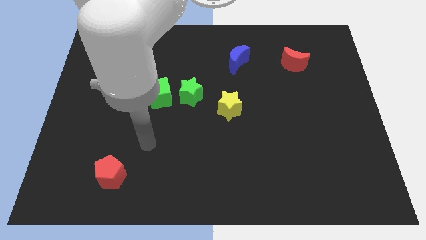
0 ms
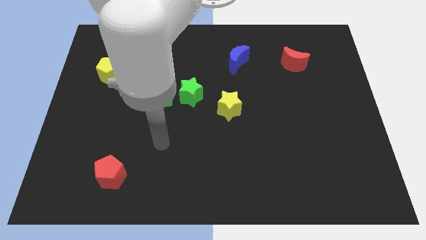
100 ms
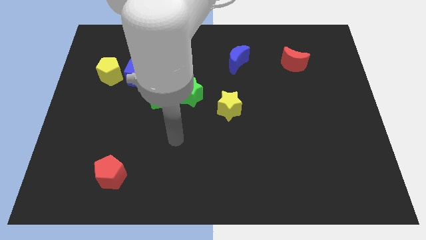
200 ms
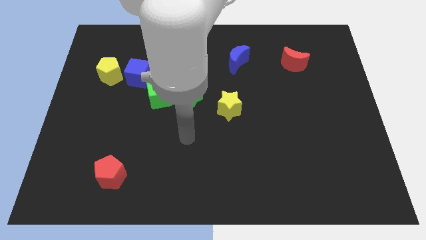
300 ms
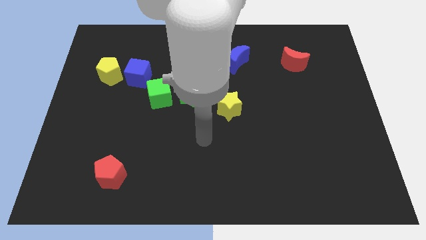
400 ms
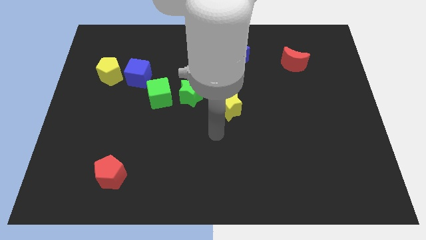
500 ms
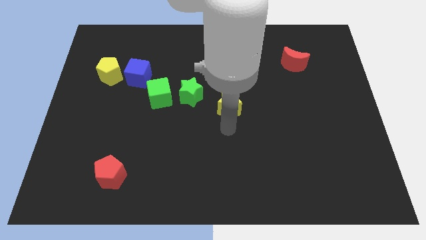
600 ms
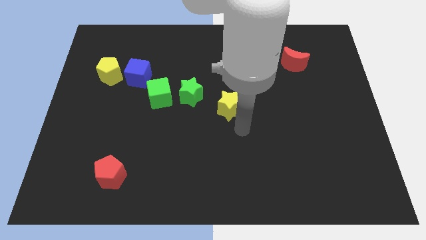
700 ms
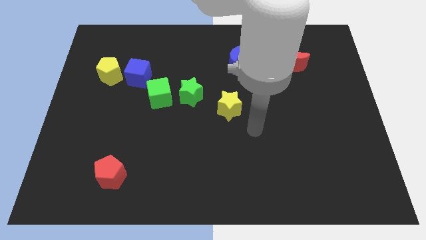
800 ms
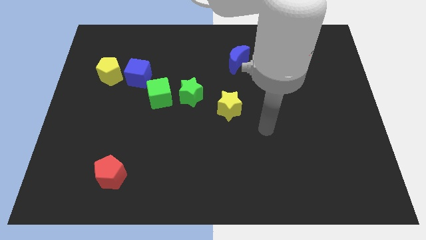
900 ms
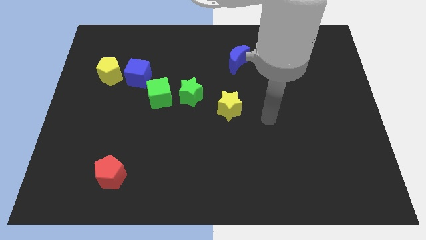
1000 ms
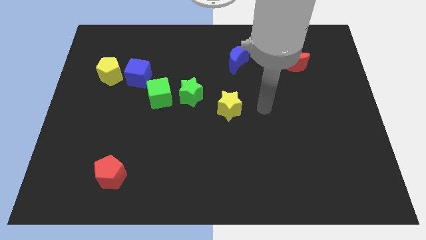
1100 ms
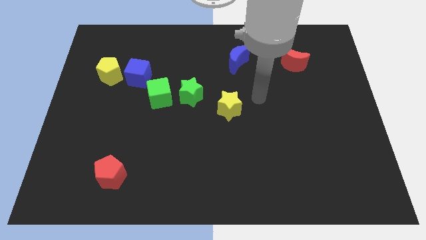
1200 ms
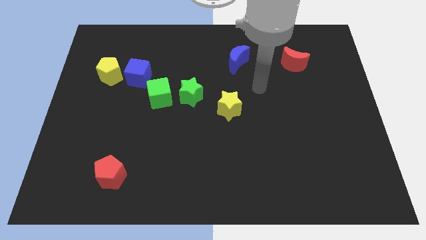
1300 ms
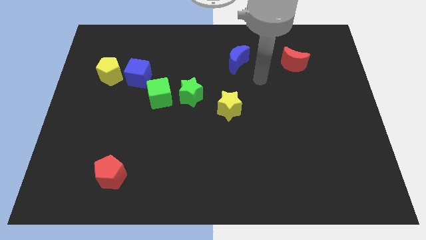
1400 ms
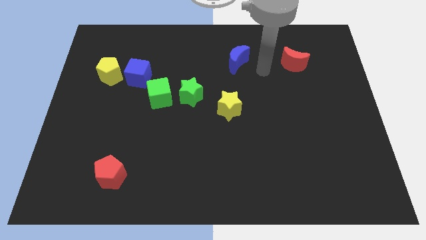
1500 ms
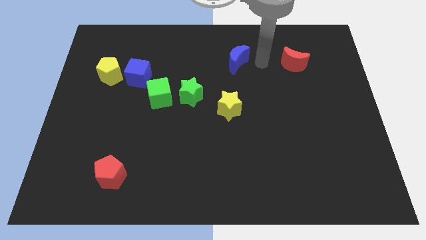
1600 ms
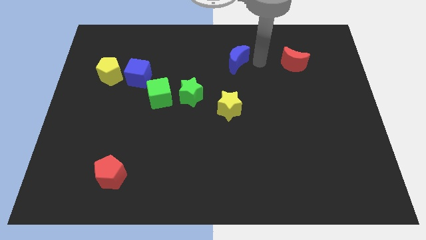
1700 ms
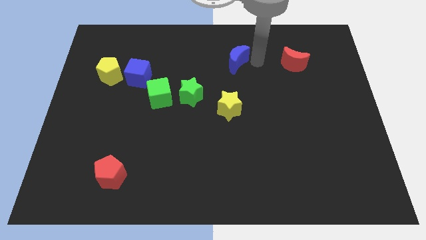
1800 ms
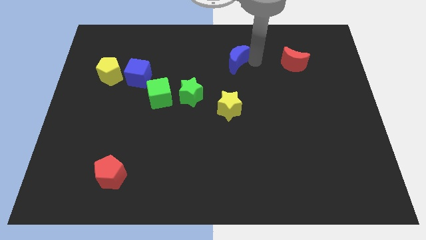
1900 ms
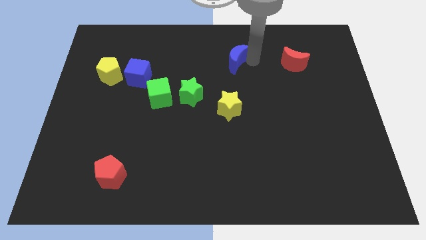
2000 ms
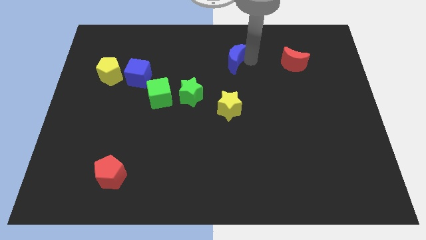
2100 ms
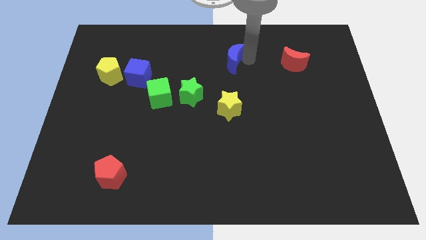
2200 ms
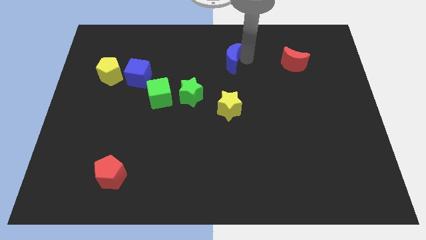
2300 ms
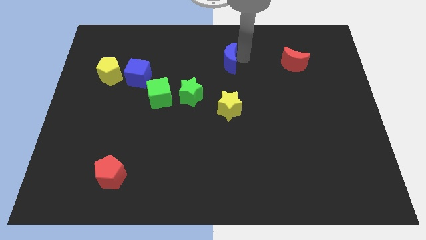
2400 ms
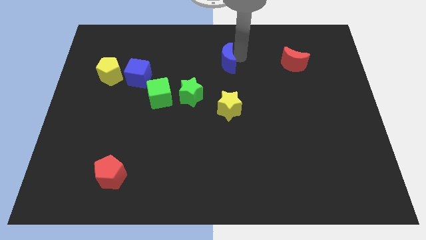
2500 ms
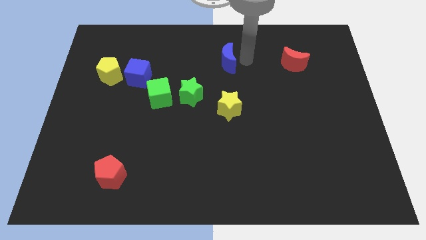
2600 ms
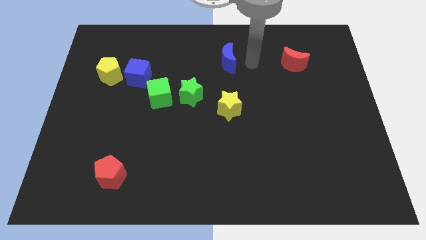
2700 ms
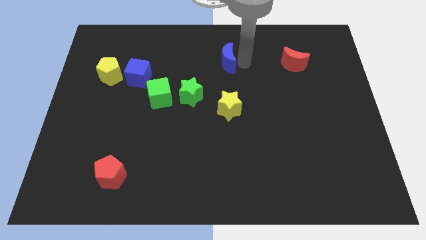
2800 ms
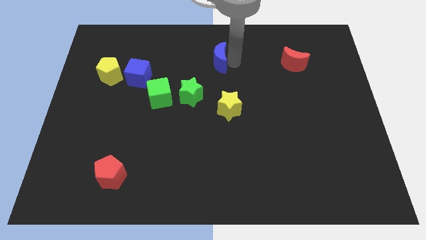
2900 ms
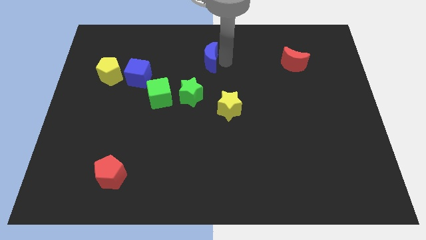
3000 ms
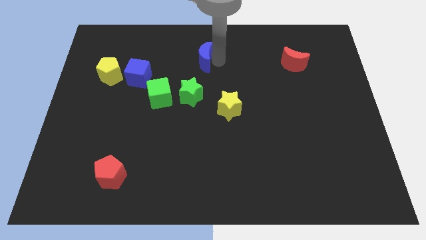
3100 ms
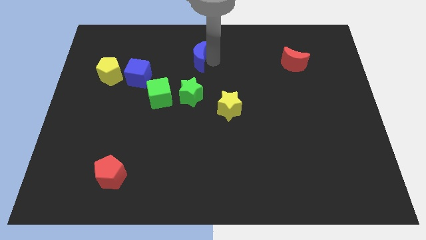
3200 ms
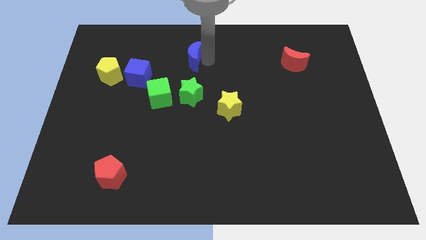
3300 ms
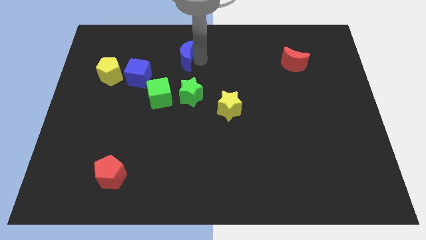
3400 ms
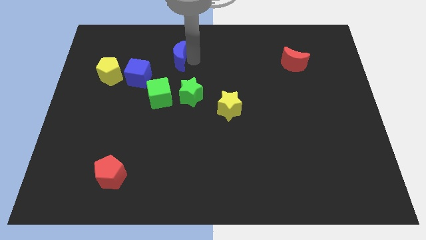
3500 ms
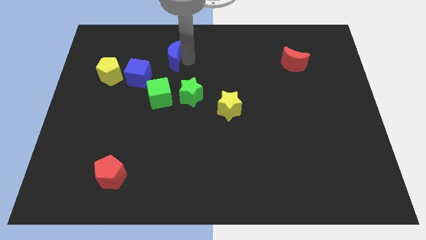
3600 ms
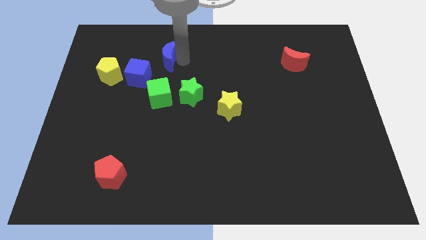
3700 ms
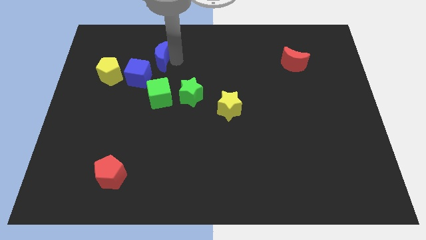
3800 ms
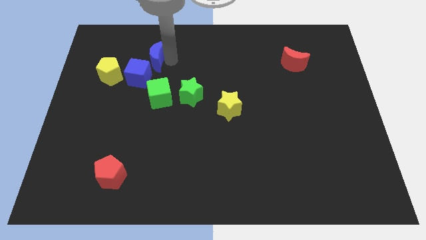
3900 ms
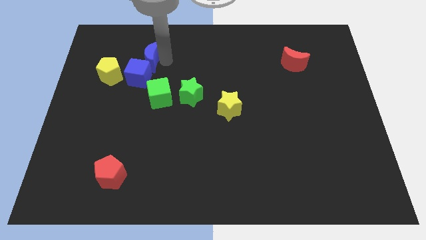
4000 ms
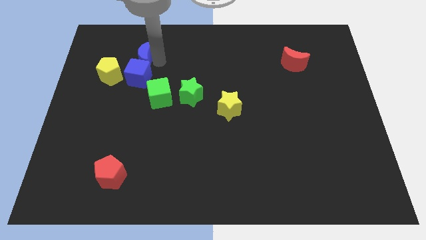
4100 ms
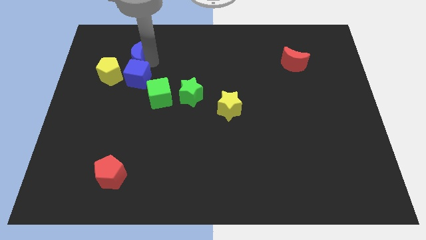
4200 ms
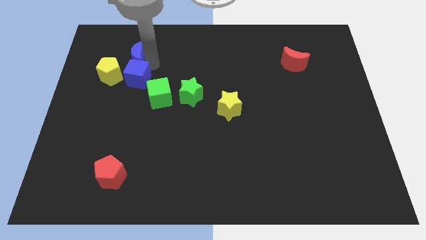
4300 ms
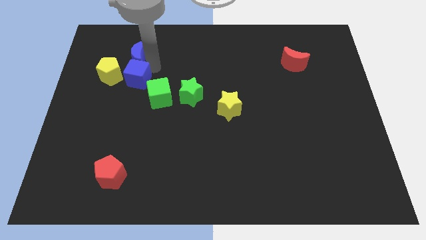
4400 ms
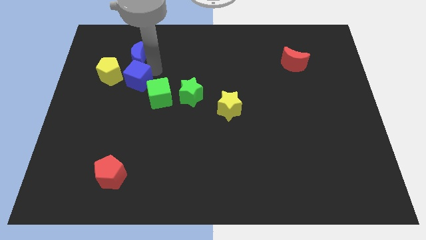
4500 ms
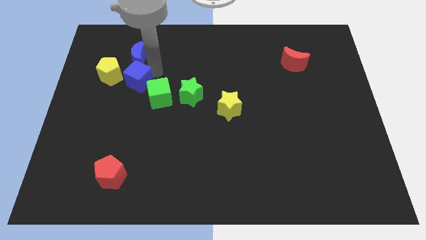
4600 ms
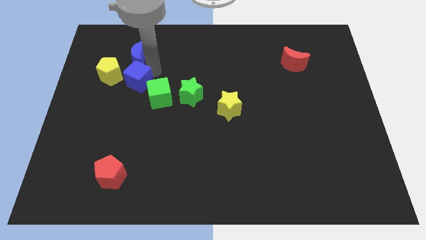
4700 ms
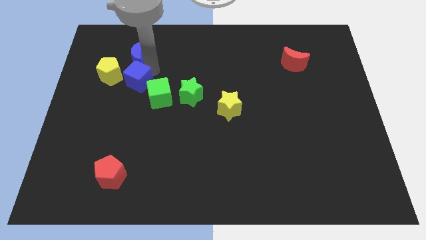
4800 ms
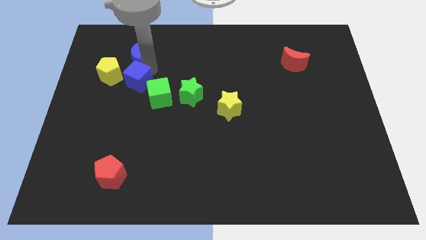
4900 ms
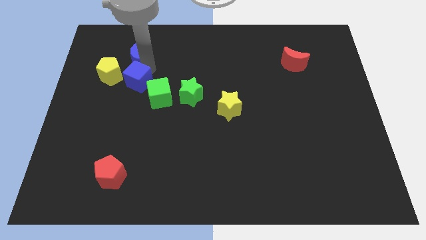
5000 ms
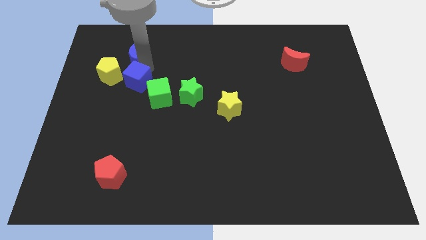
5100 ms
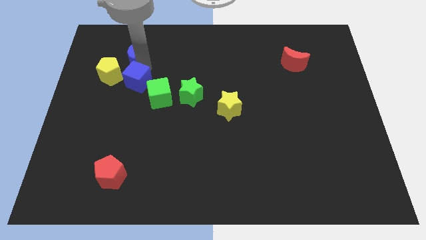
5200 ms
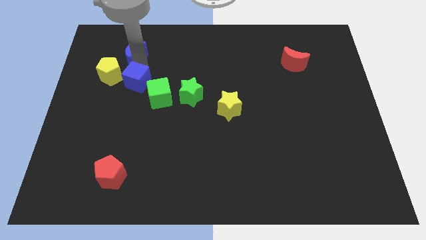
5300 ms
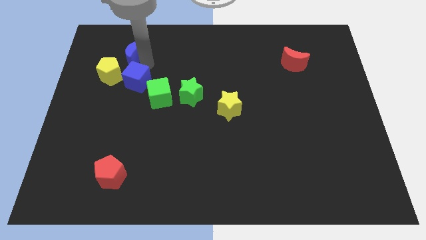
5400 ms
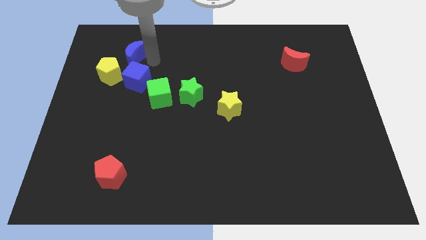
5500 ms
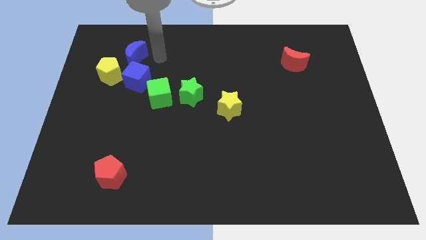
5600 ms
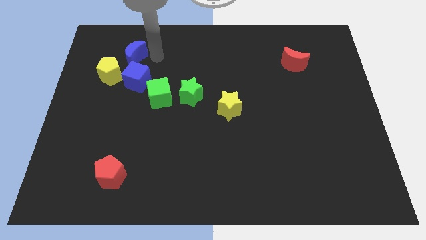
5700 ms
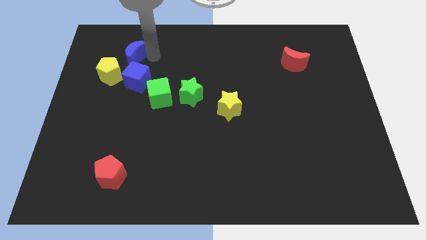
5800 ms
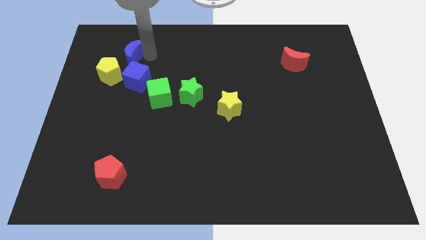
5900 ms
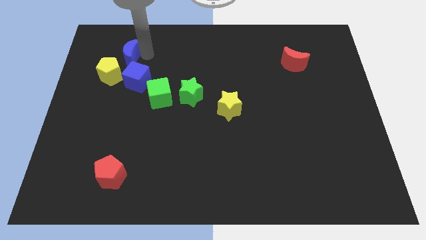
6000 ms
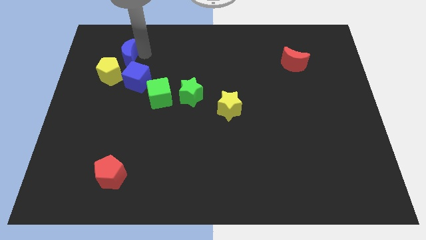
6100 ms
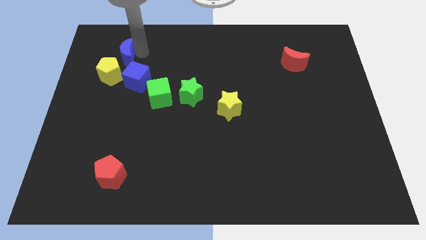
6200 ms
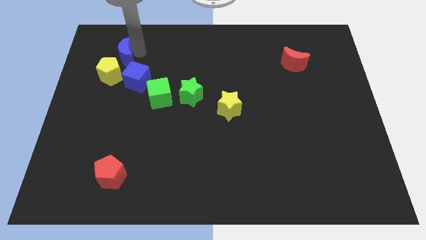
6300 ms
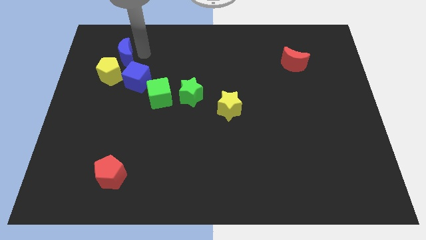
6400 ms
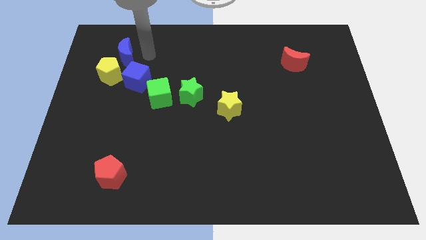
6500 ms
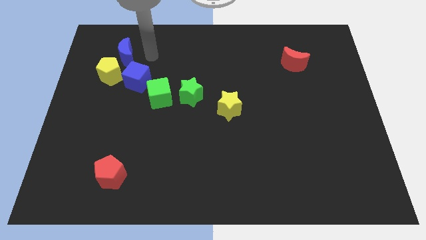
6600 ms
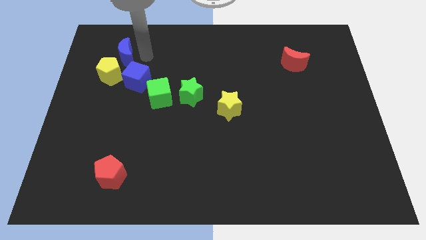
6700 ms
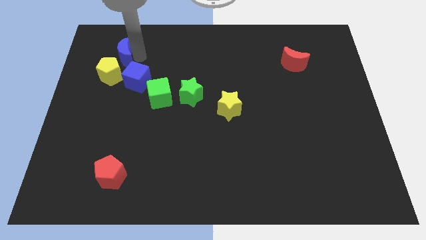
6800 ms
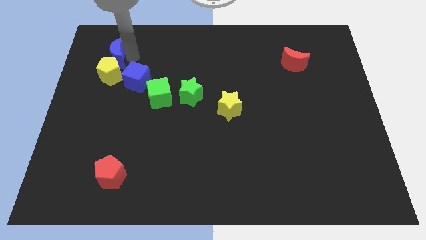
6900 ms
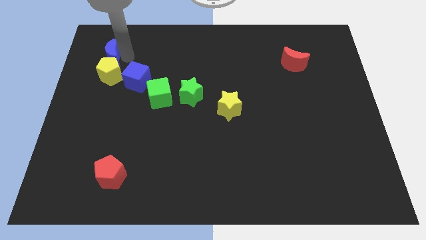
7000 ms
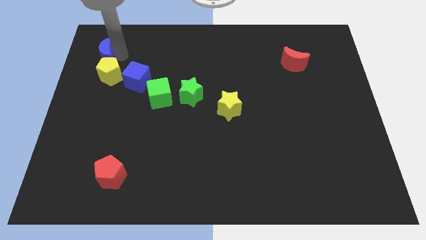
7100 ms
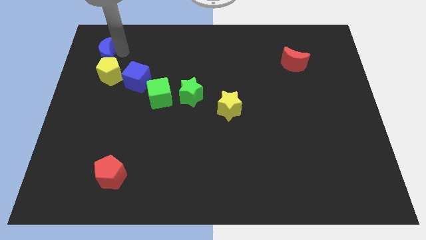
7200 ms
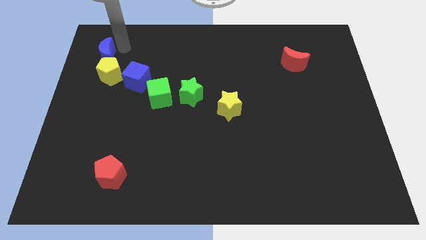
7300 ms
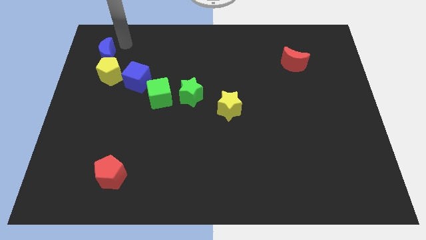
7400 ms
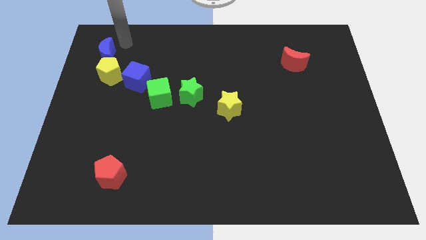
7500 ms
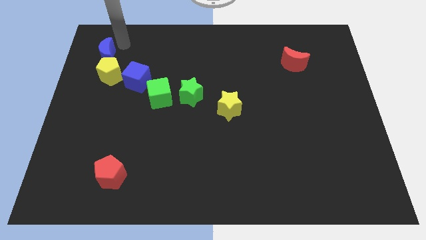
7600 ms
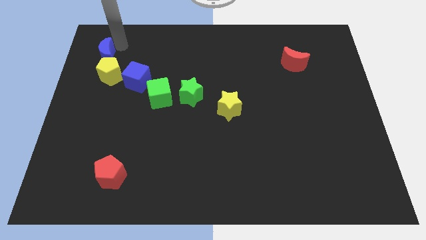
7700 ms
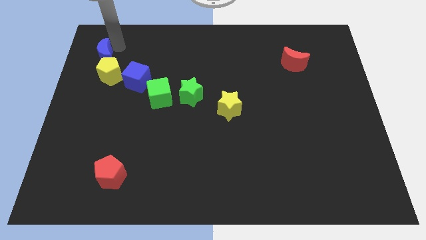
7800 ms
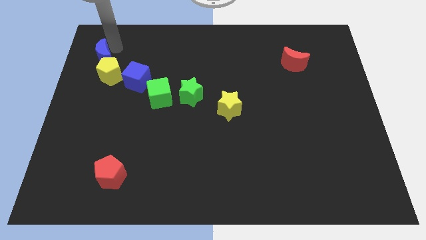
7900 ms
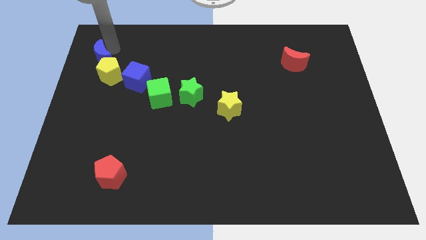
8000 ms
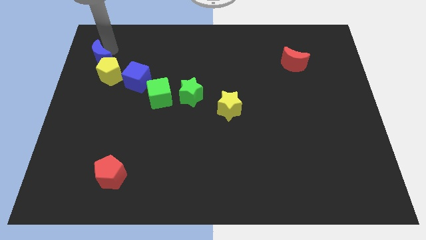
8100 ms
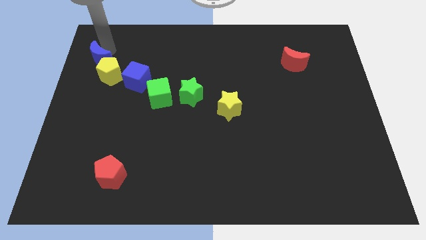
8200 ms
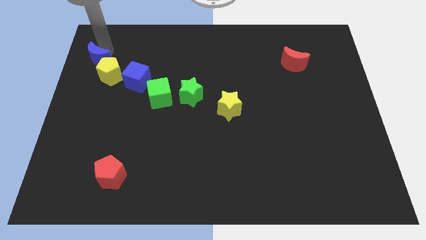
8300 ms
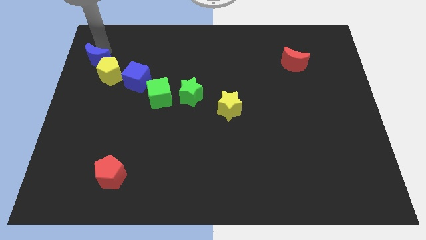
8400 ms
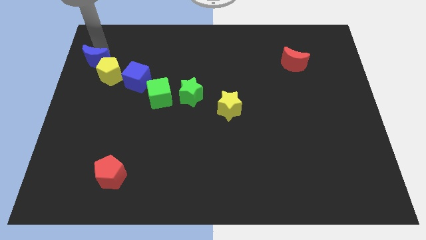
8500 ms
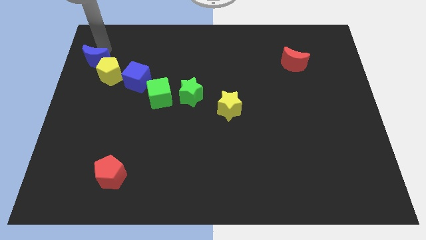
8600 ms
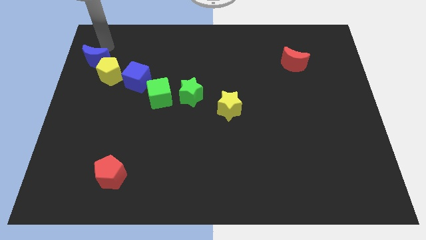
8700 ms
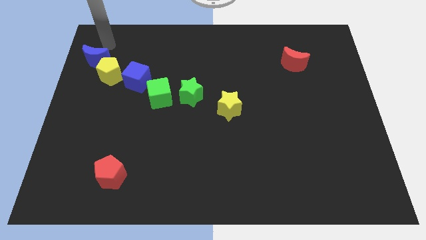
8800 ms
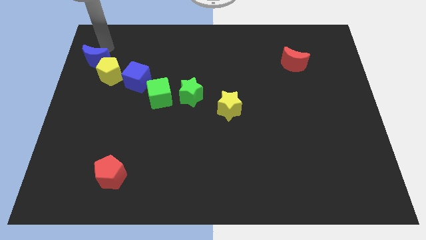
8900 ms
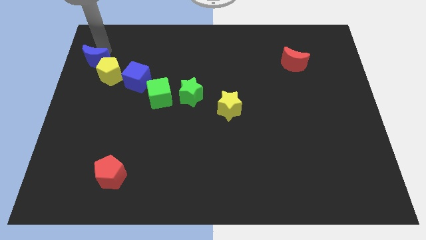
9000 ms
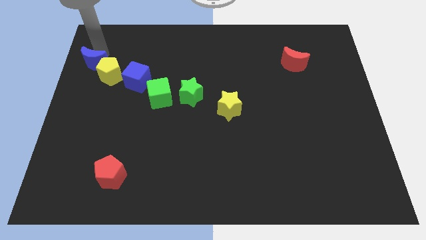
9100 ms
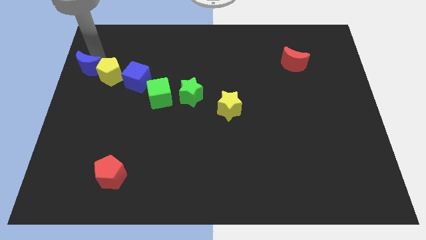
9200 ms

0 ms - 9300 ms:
move the blue moon to the center left
